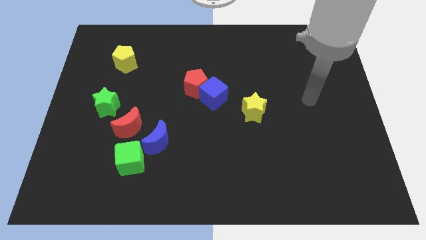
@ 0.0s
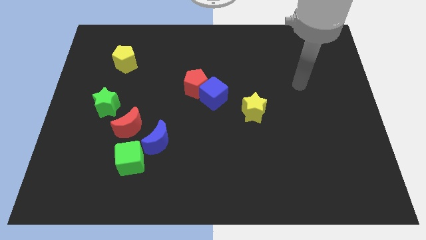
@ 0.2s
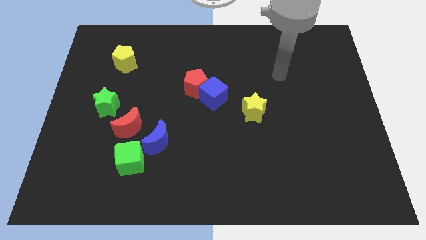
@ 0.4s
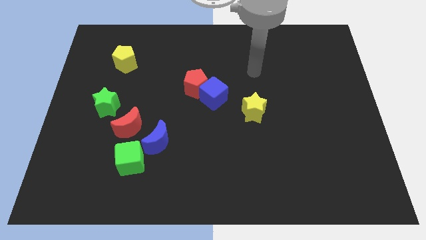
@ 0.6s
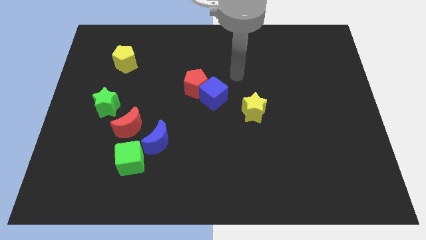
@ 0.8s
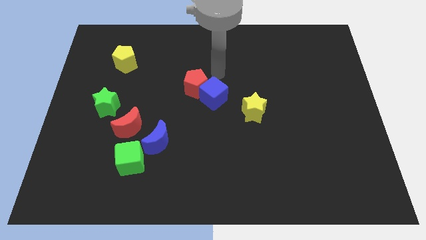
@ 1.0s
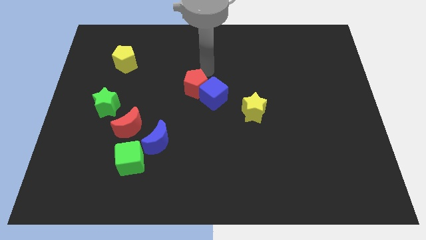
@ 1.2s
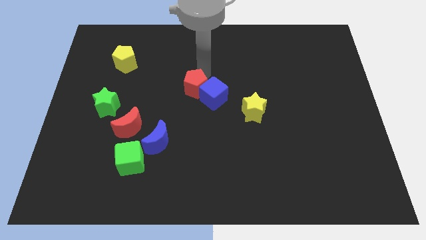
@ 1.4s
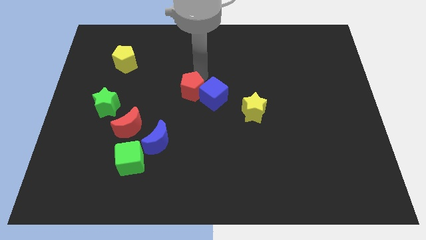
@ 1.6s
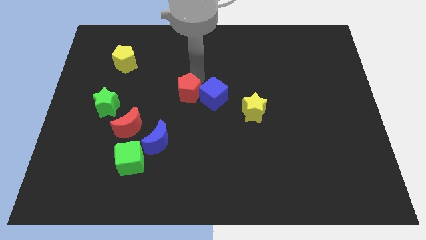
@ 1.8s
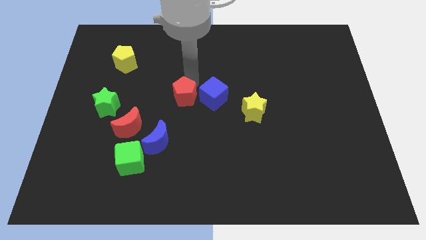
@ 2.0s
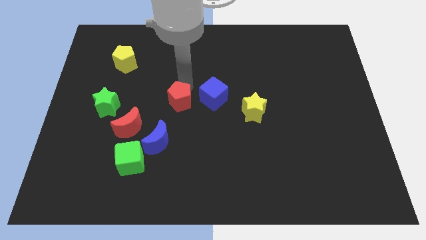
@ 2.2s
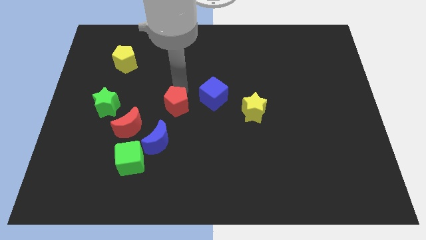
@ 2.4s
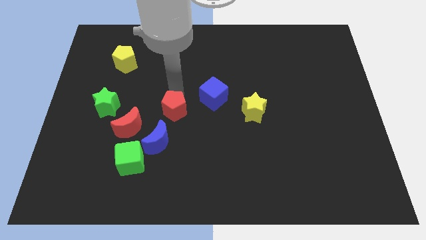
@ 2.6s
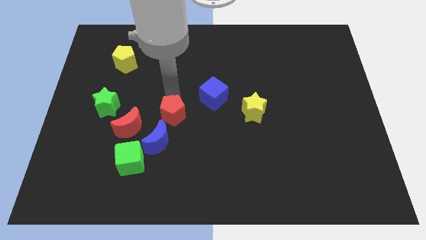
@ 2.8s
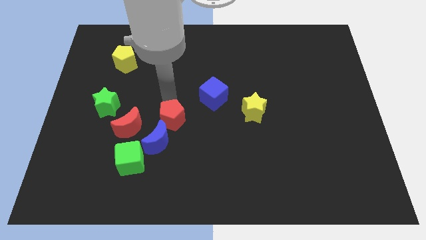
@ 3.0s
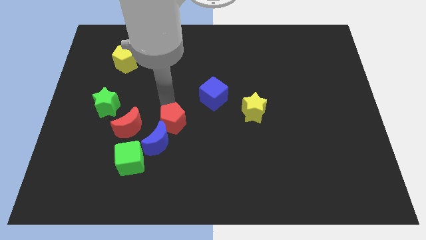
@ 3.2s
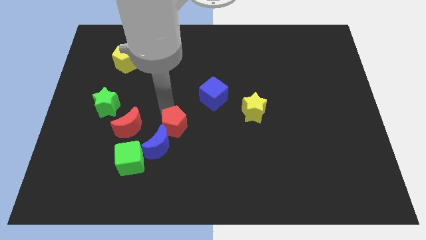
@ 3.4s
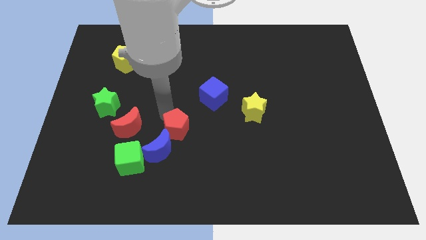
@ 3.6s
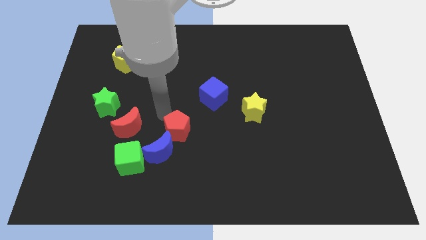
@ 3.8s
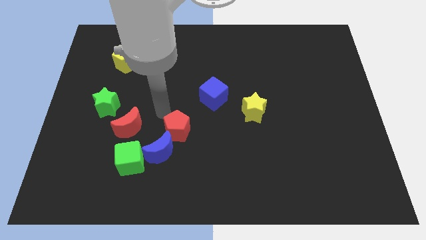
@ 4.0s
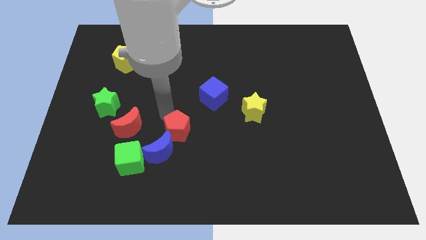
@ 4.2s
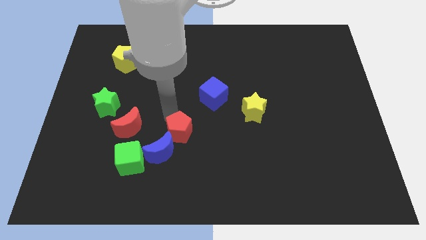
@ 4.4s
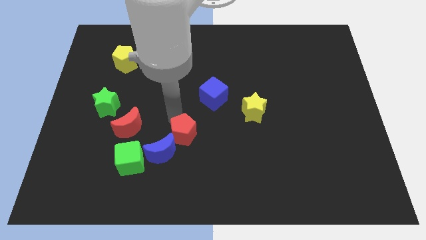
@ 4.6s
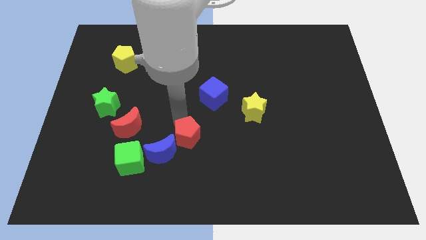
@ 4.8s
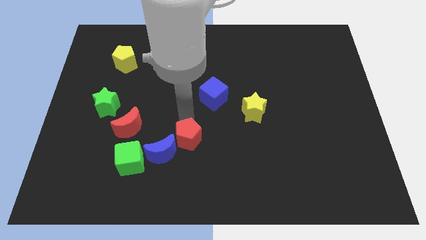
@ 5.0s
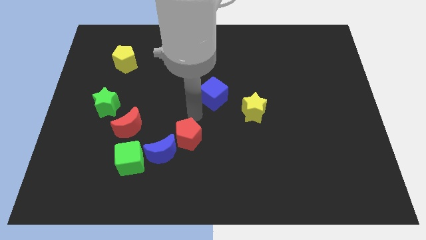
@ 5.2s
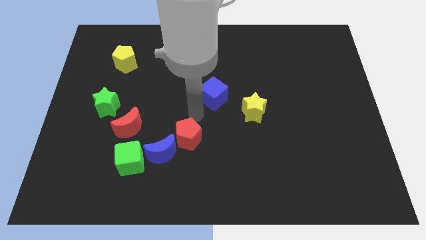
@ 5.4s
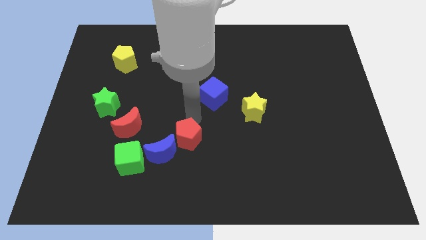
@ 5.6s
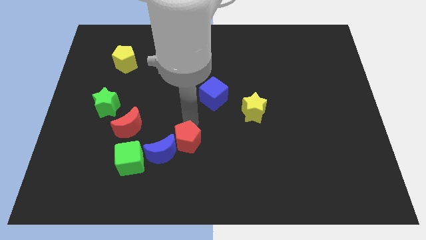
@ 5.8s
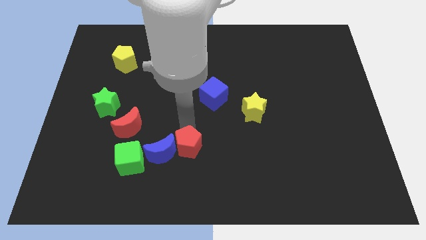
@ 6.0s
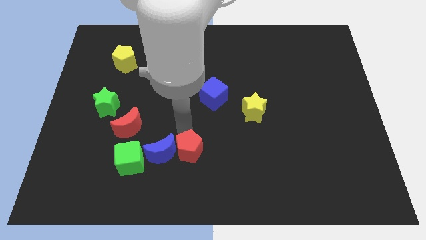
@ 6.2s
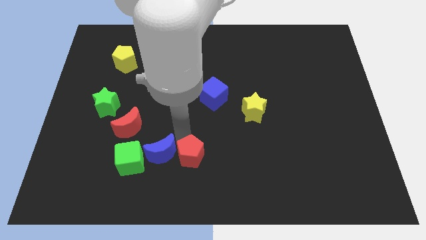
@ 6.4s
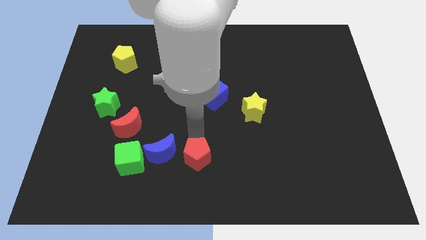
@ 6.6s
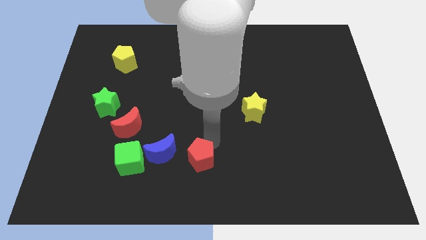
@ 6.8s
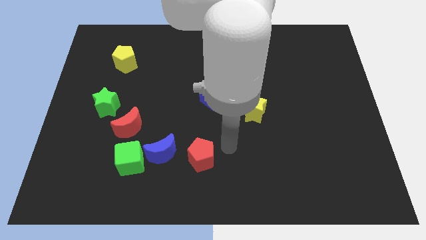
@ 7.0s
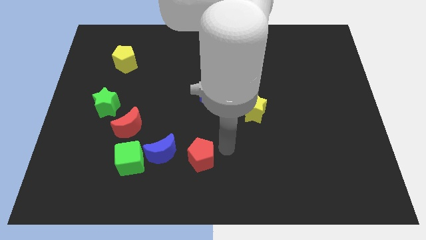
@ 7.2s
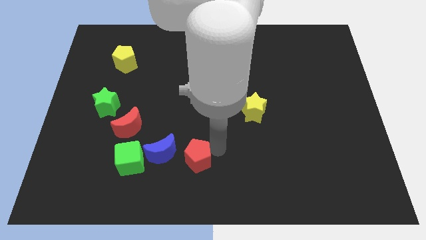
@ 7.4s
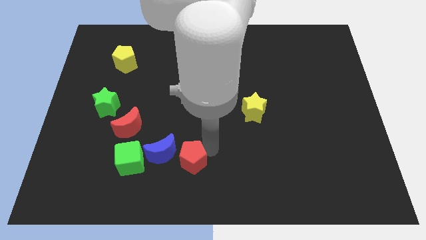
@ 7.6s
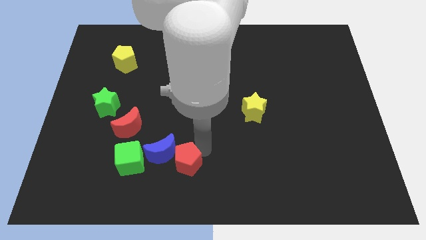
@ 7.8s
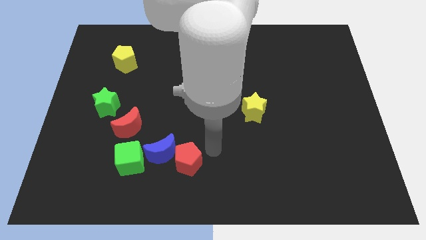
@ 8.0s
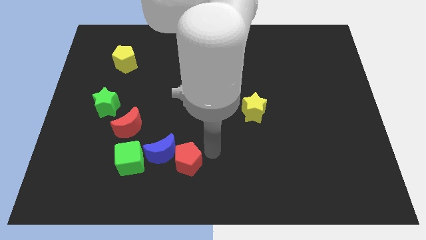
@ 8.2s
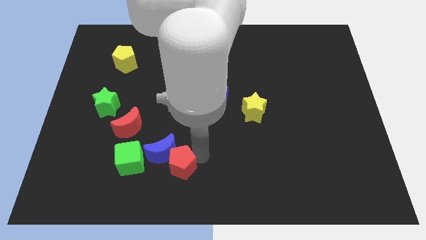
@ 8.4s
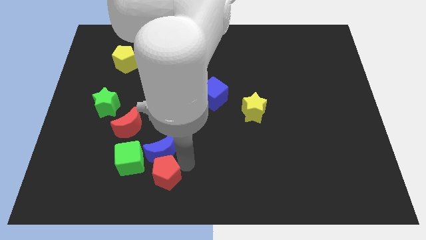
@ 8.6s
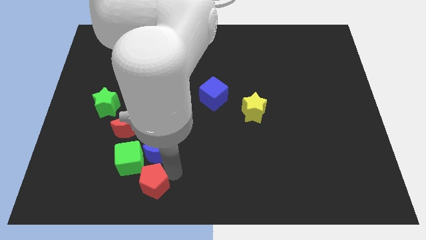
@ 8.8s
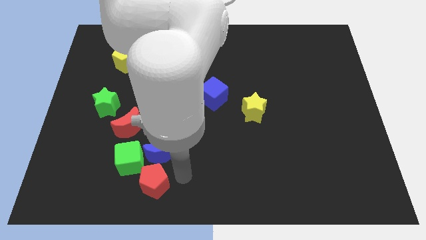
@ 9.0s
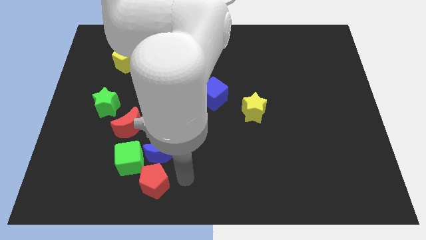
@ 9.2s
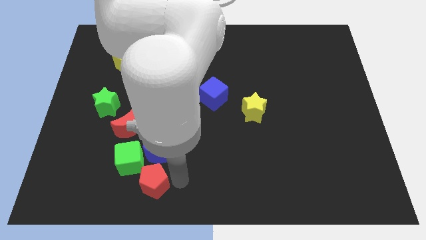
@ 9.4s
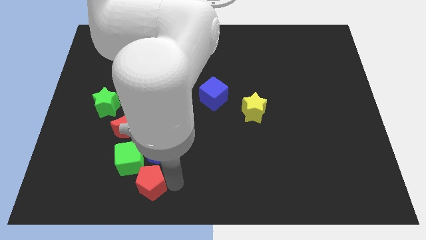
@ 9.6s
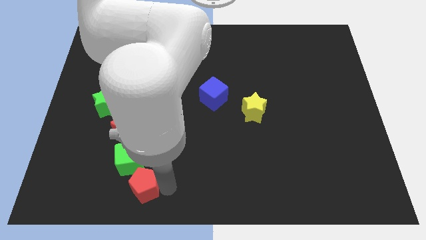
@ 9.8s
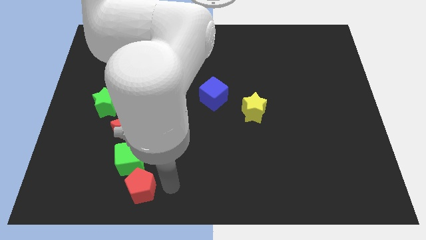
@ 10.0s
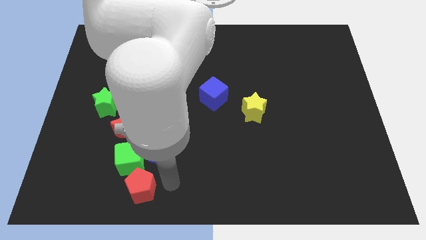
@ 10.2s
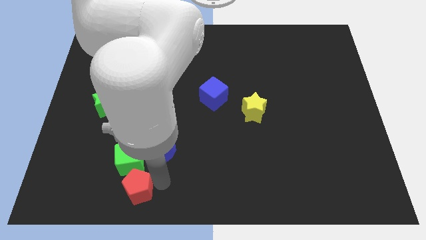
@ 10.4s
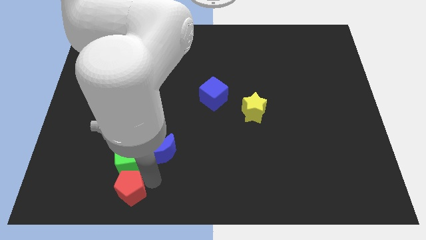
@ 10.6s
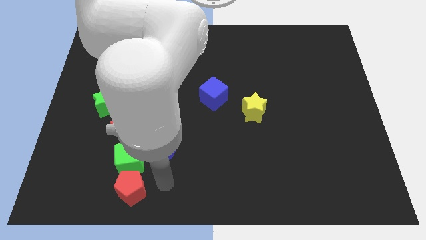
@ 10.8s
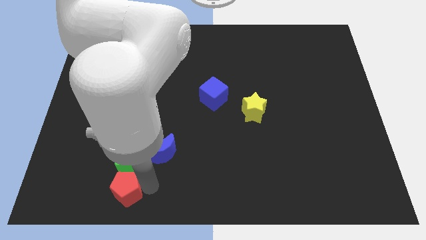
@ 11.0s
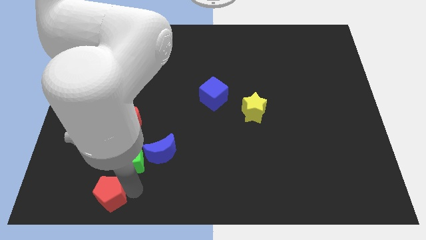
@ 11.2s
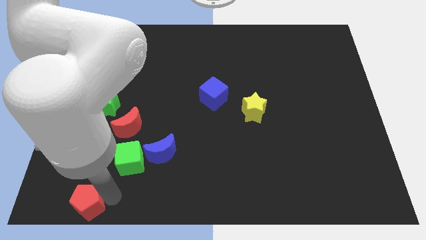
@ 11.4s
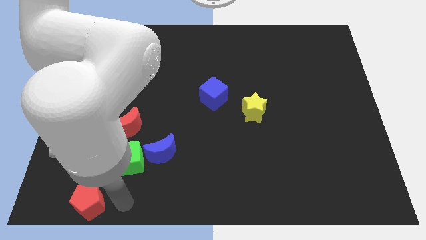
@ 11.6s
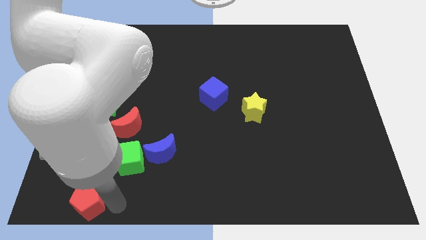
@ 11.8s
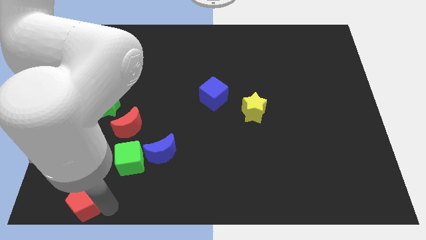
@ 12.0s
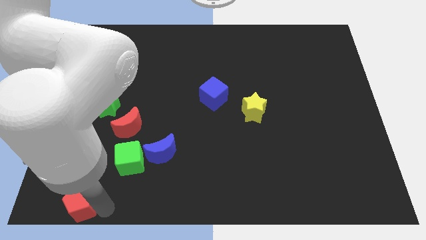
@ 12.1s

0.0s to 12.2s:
push the red pentagon to the bottom left

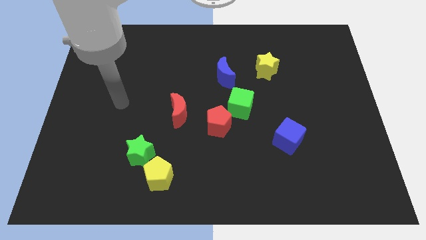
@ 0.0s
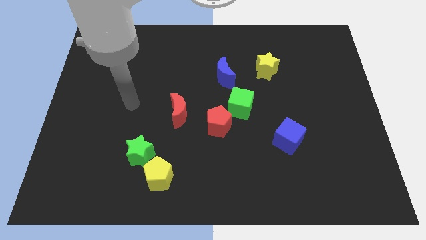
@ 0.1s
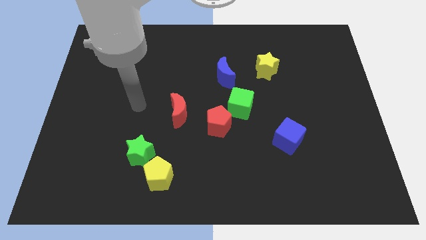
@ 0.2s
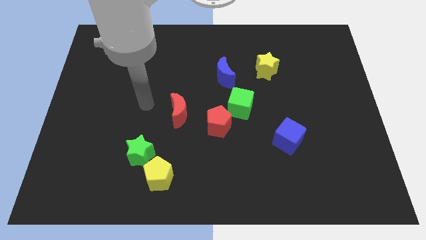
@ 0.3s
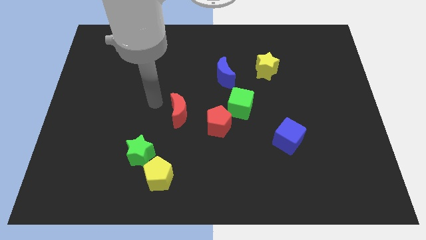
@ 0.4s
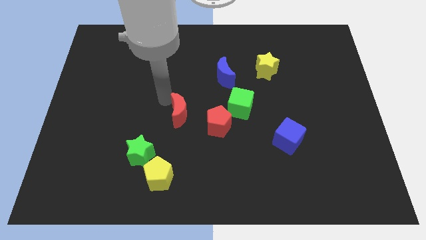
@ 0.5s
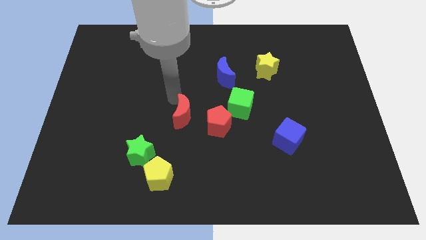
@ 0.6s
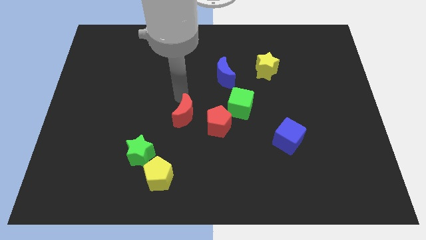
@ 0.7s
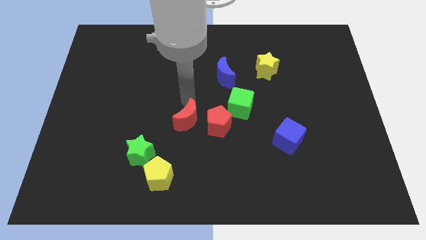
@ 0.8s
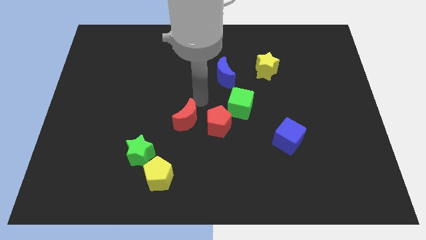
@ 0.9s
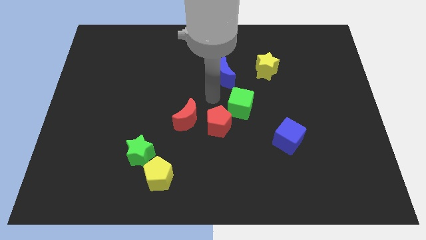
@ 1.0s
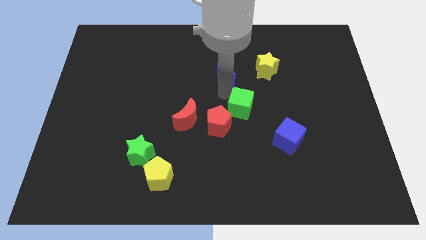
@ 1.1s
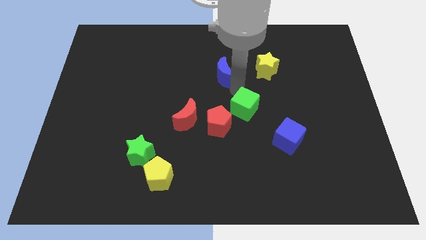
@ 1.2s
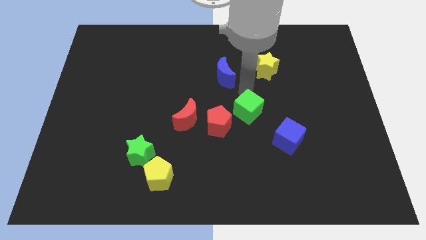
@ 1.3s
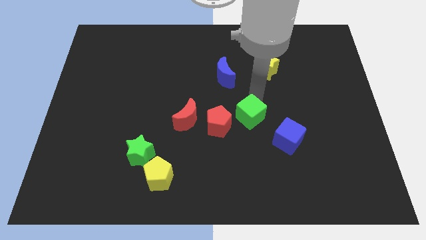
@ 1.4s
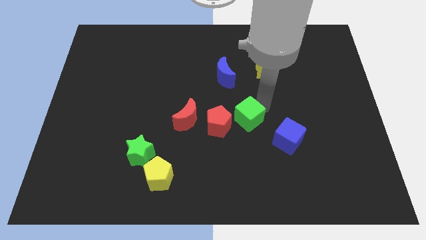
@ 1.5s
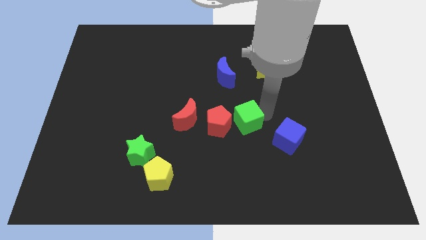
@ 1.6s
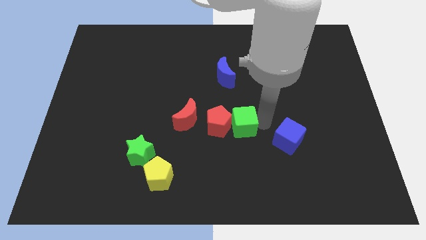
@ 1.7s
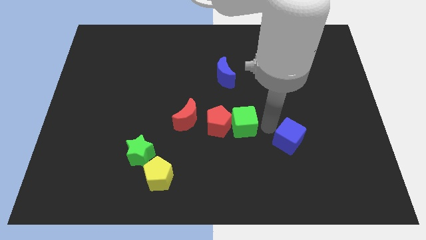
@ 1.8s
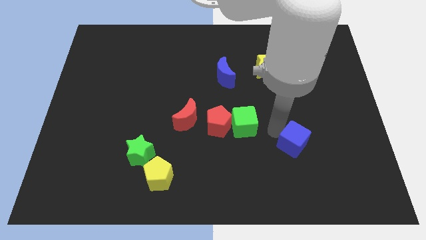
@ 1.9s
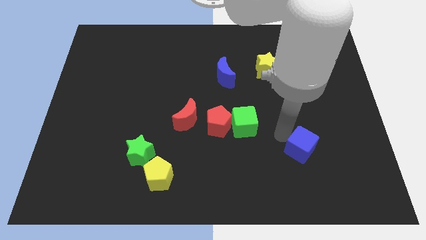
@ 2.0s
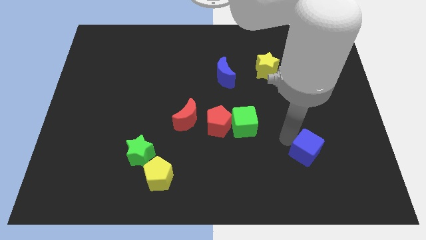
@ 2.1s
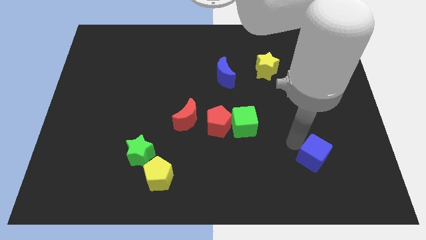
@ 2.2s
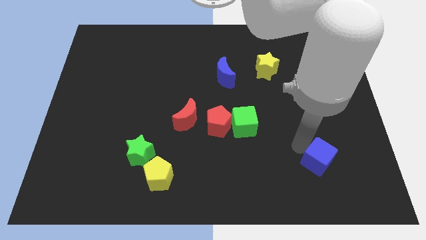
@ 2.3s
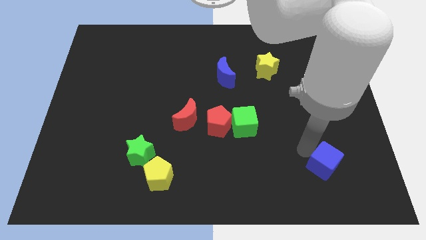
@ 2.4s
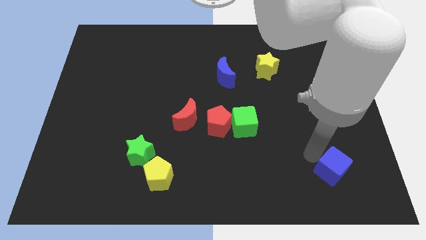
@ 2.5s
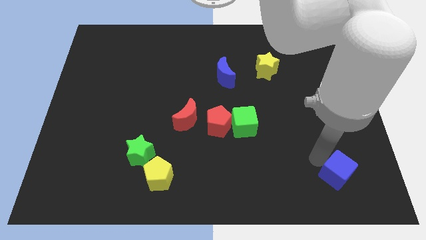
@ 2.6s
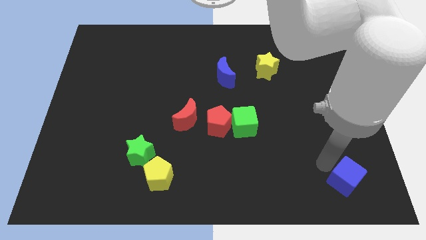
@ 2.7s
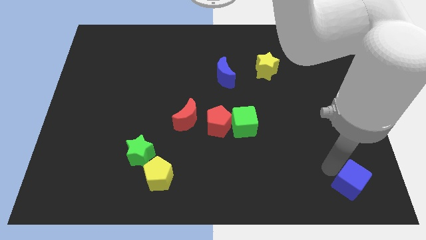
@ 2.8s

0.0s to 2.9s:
slide the blue cube to the bottom right
